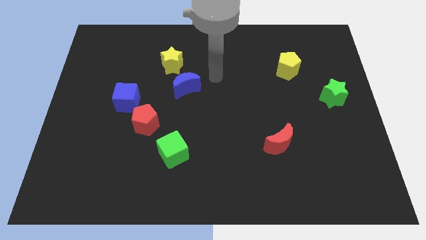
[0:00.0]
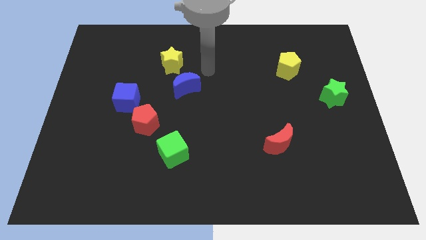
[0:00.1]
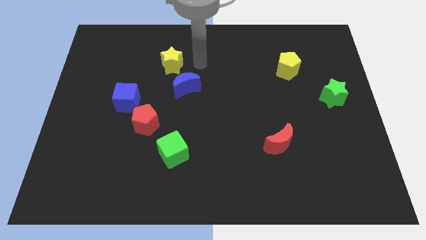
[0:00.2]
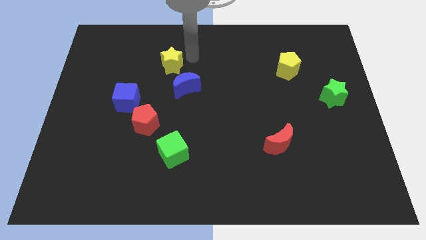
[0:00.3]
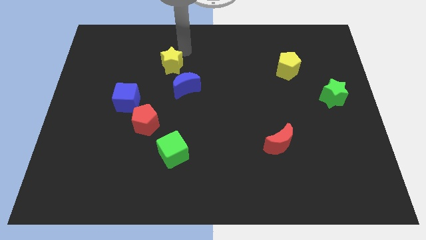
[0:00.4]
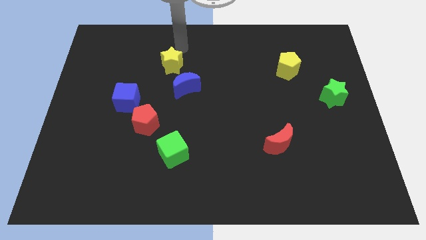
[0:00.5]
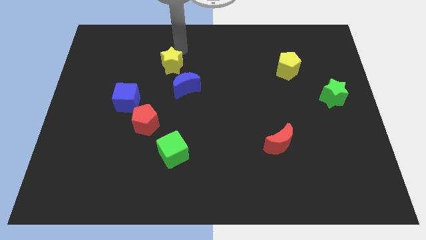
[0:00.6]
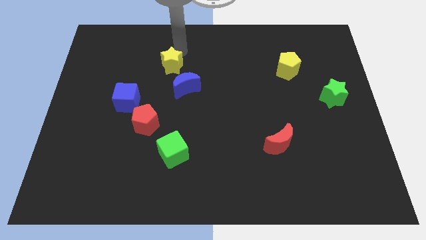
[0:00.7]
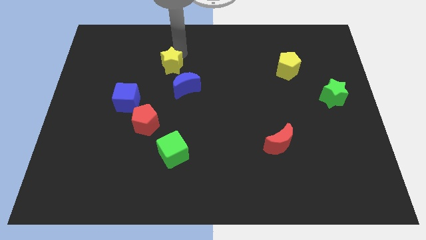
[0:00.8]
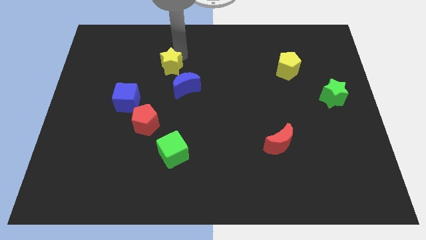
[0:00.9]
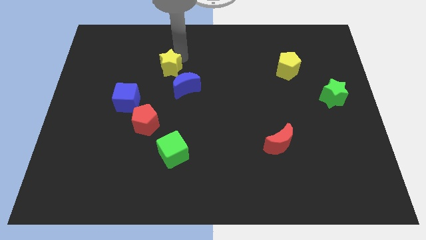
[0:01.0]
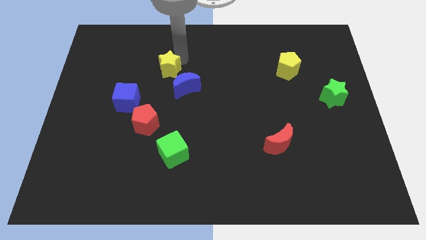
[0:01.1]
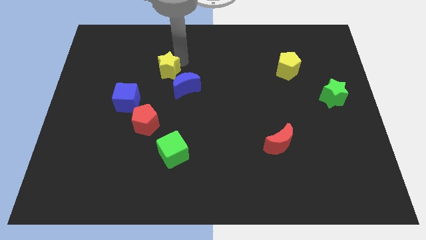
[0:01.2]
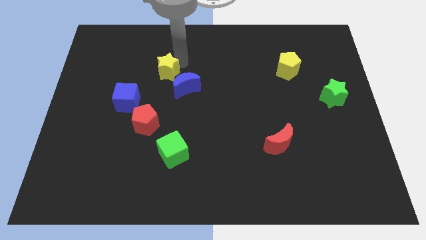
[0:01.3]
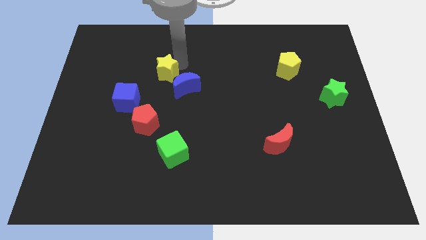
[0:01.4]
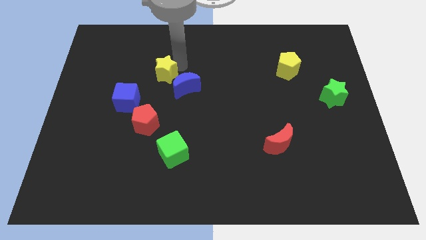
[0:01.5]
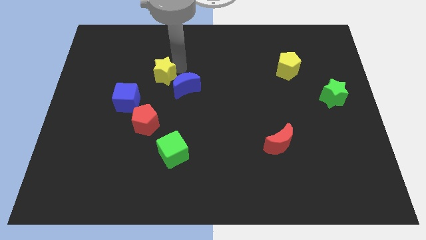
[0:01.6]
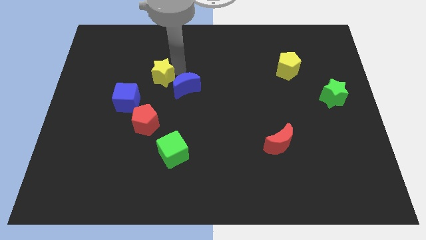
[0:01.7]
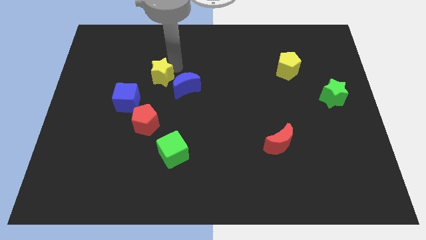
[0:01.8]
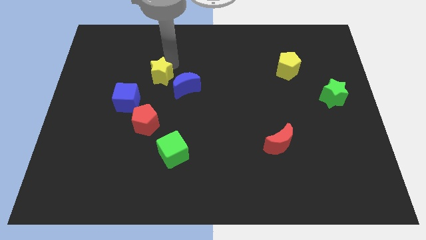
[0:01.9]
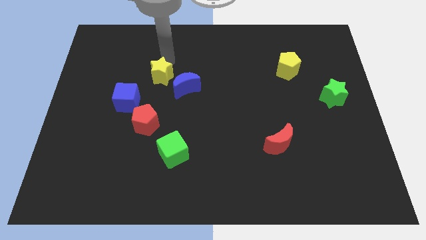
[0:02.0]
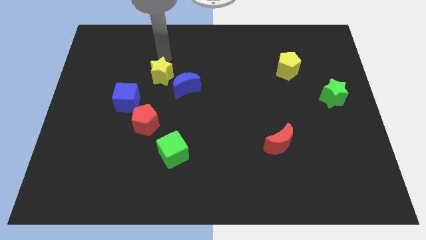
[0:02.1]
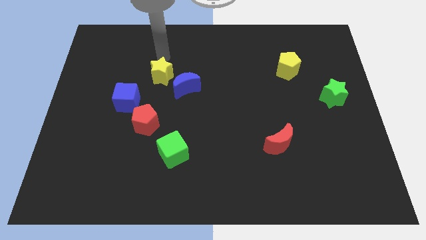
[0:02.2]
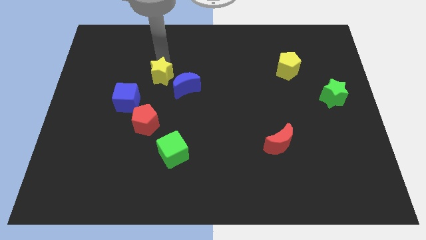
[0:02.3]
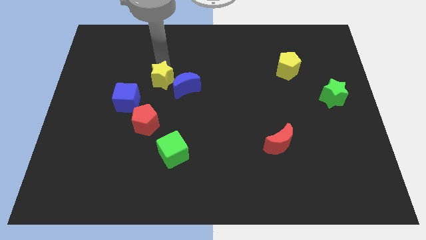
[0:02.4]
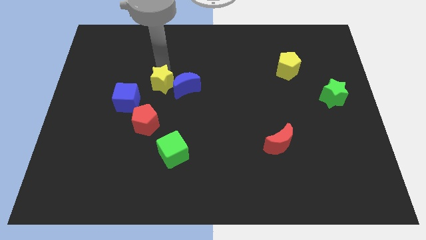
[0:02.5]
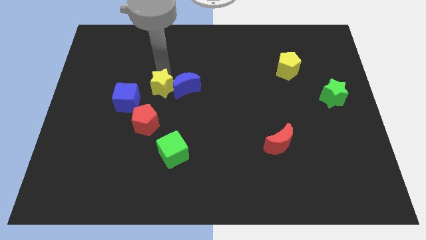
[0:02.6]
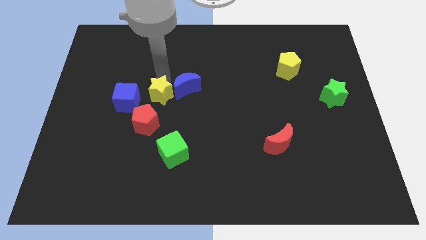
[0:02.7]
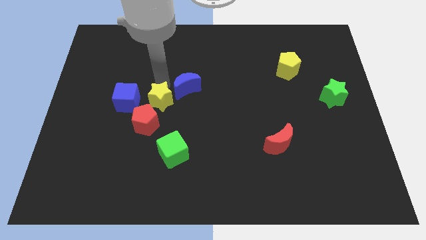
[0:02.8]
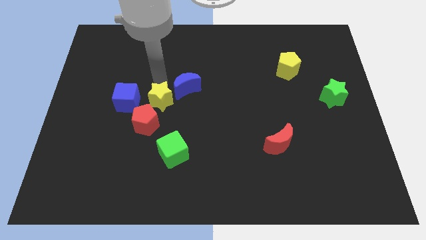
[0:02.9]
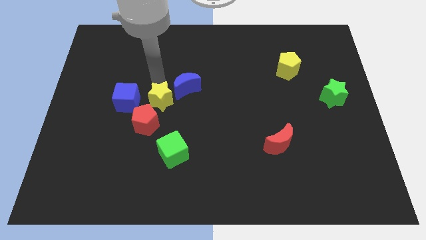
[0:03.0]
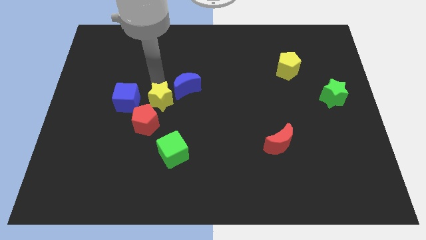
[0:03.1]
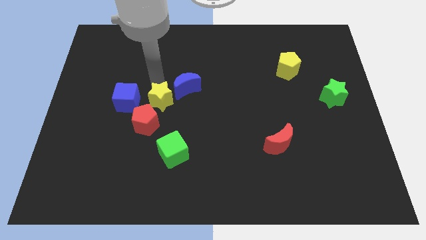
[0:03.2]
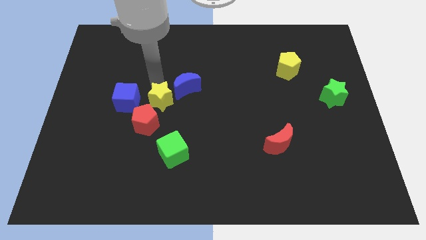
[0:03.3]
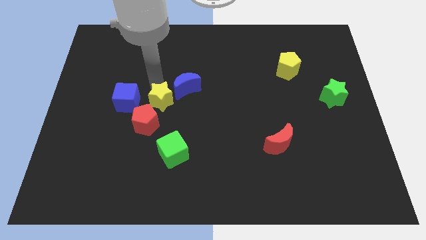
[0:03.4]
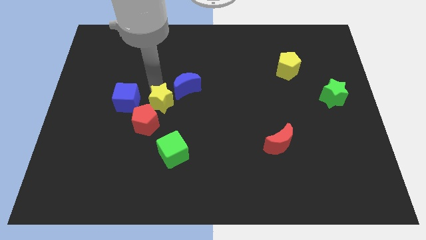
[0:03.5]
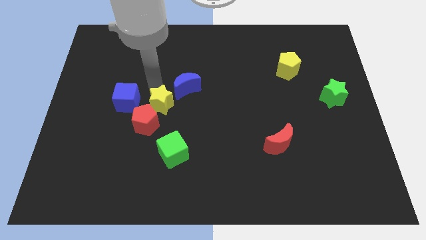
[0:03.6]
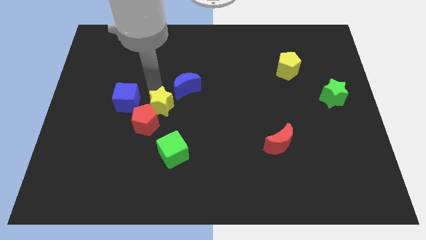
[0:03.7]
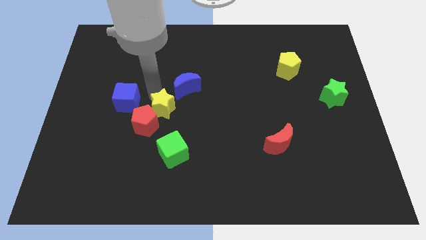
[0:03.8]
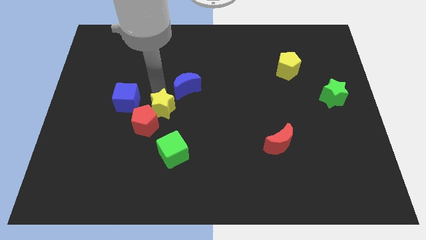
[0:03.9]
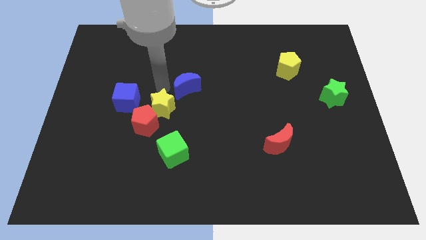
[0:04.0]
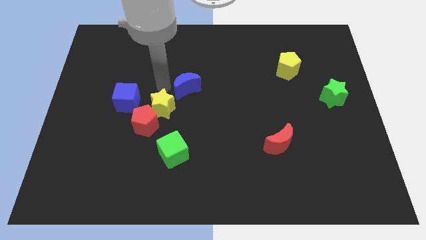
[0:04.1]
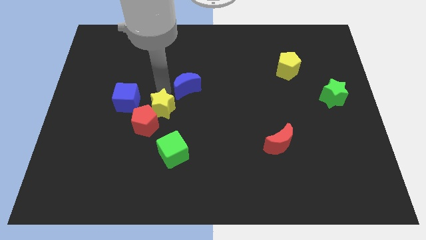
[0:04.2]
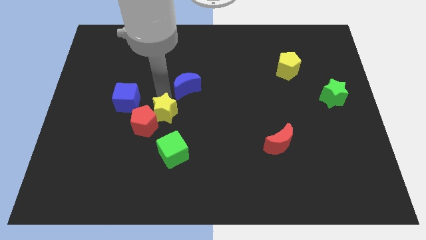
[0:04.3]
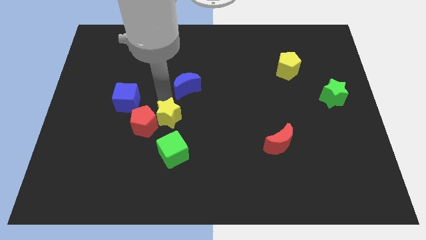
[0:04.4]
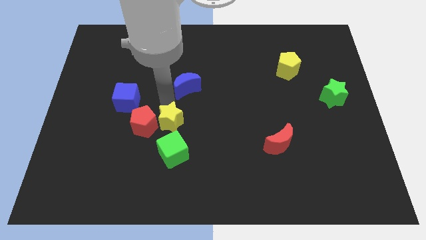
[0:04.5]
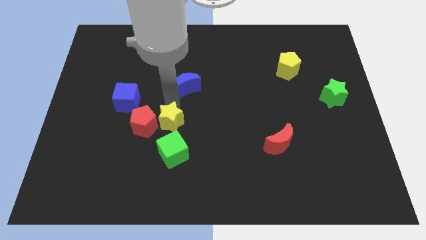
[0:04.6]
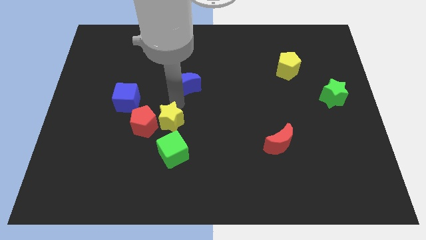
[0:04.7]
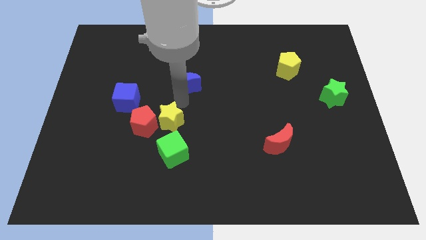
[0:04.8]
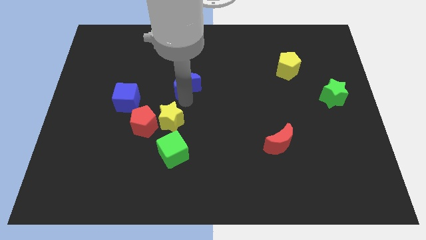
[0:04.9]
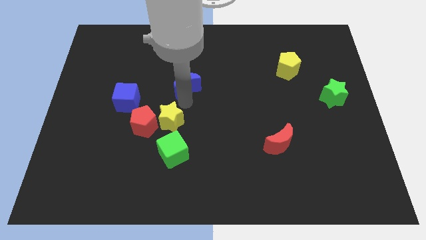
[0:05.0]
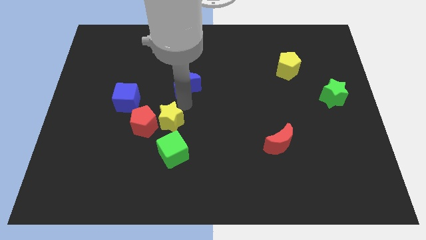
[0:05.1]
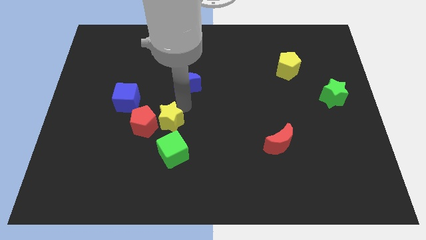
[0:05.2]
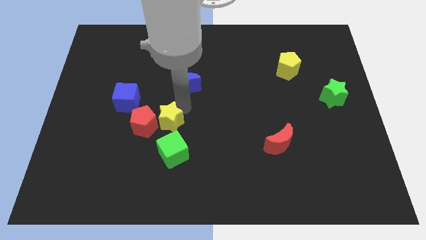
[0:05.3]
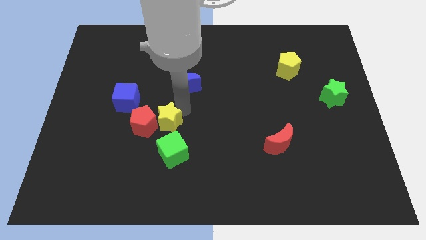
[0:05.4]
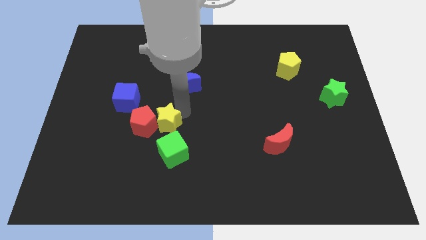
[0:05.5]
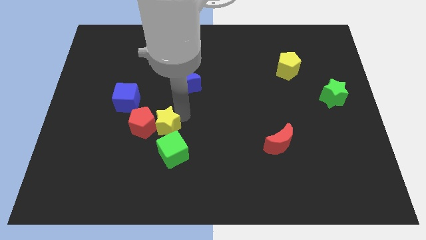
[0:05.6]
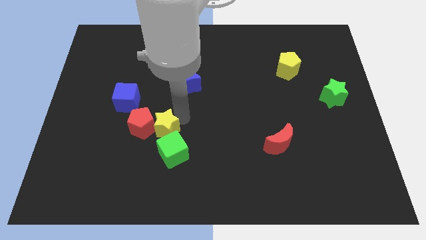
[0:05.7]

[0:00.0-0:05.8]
move the yellow star downwards

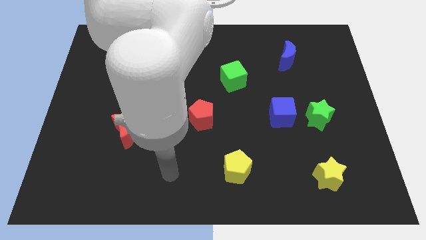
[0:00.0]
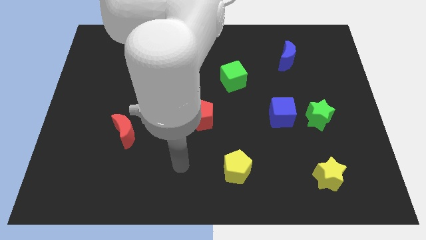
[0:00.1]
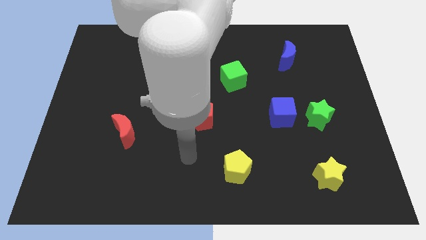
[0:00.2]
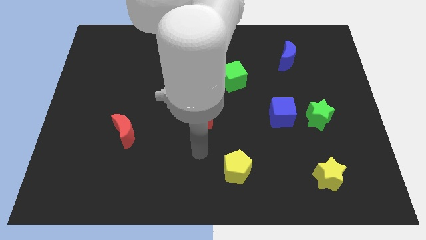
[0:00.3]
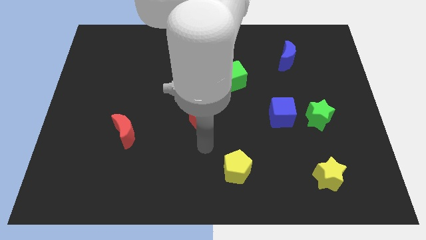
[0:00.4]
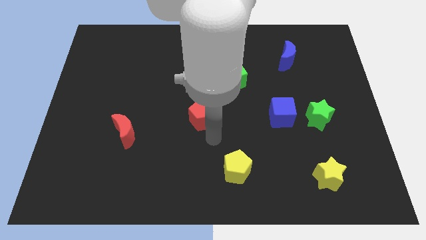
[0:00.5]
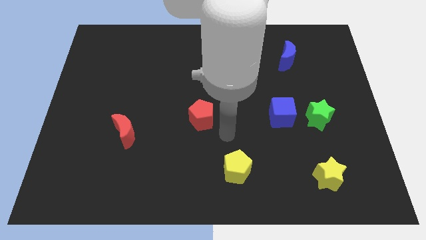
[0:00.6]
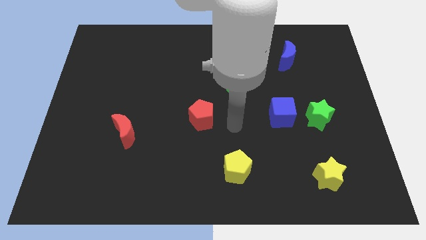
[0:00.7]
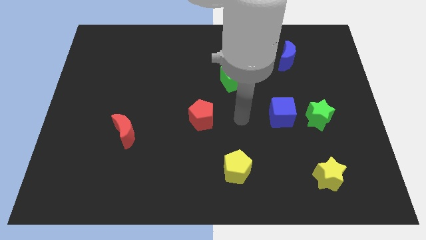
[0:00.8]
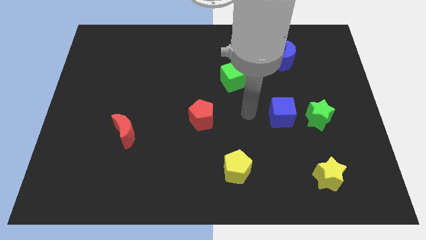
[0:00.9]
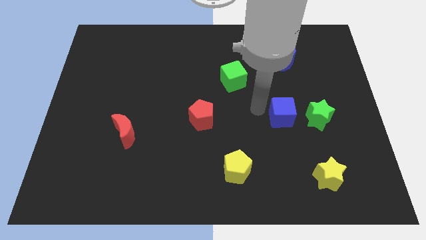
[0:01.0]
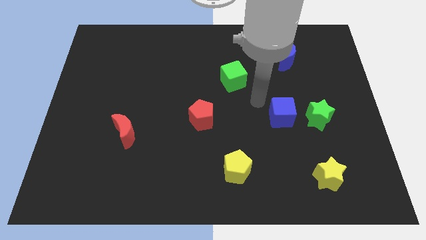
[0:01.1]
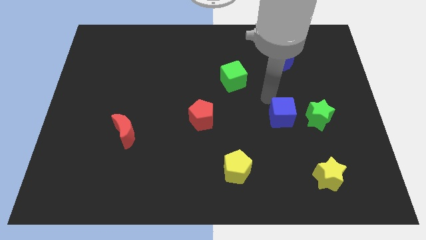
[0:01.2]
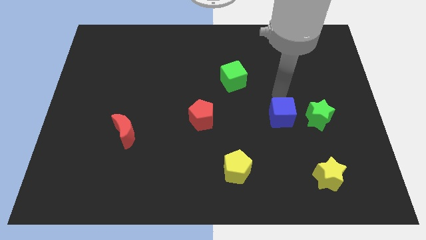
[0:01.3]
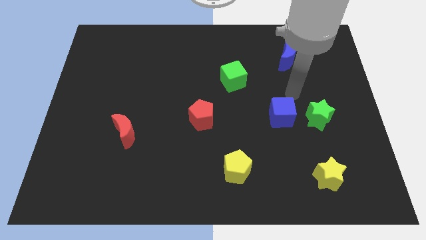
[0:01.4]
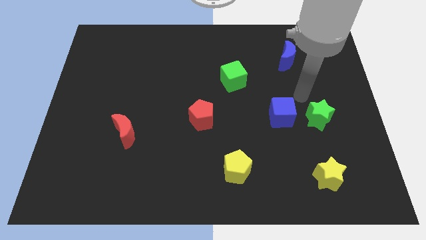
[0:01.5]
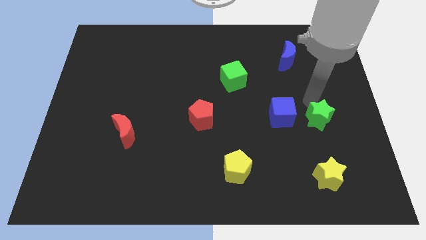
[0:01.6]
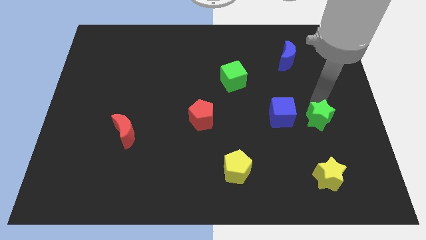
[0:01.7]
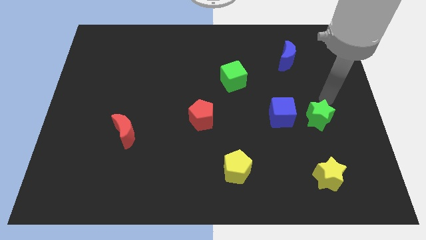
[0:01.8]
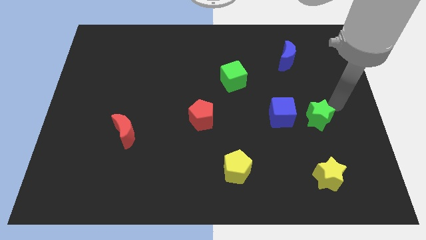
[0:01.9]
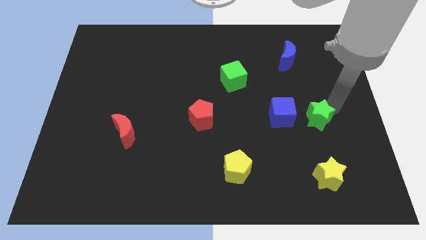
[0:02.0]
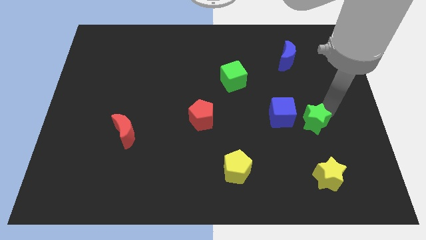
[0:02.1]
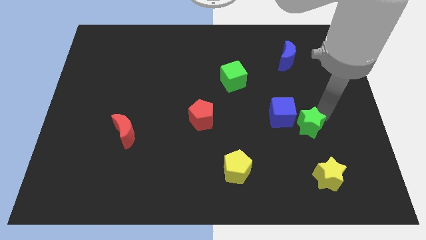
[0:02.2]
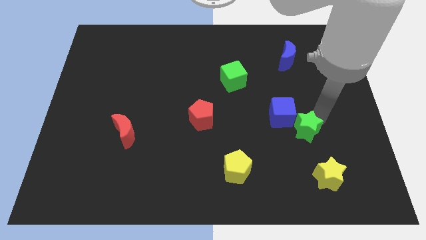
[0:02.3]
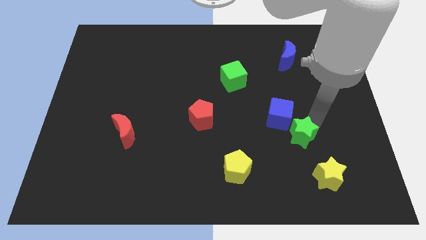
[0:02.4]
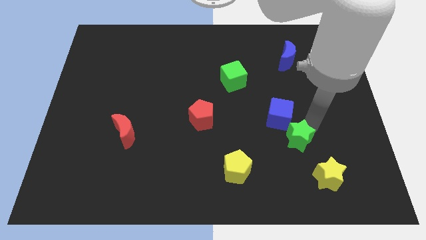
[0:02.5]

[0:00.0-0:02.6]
slightly move the green star down and to the left diagonally

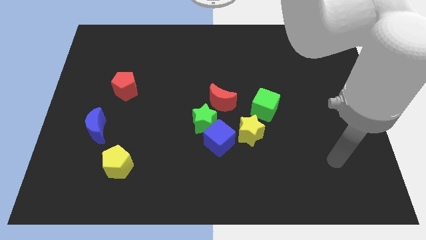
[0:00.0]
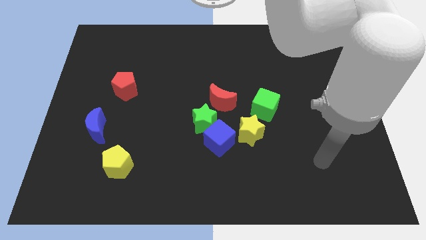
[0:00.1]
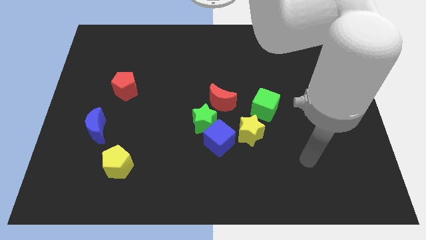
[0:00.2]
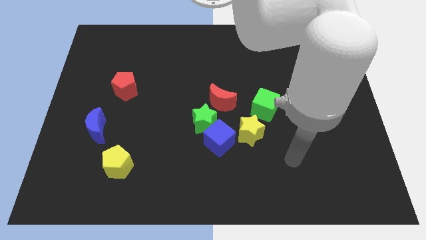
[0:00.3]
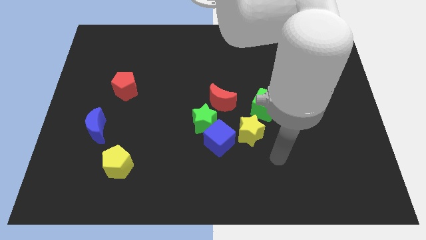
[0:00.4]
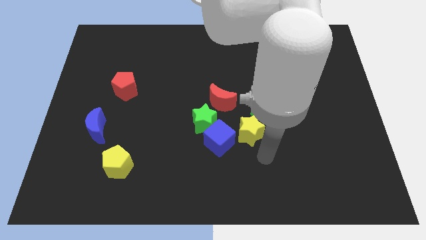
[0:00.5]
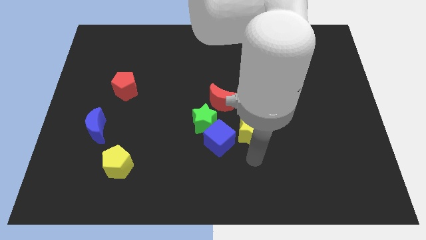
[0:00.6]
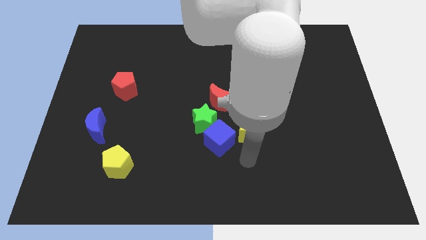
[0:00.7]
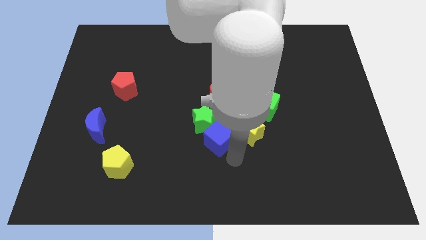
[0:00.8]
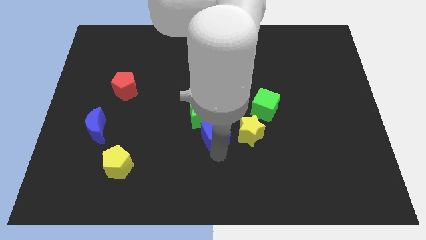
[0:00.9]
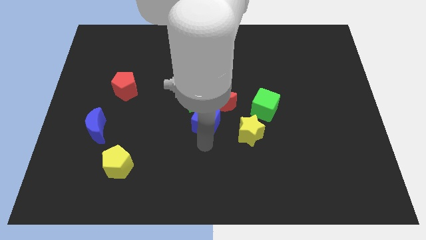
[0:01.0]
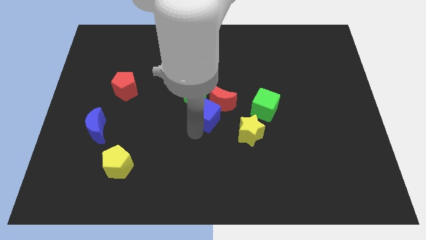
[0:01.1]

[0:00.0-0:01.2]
slightly move the green star up
